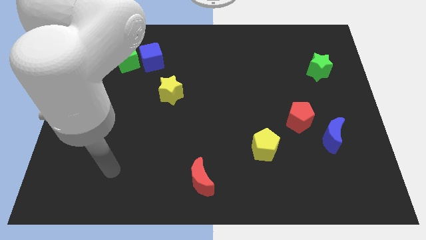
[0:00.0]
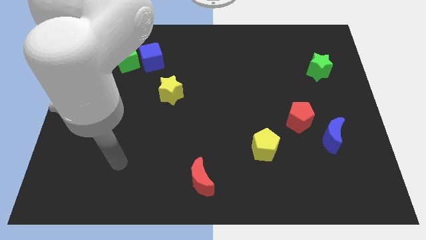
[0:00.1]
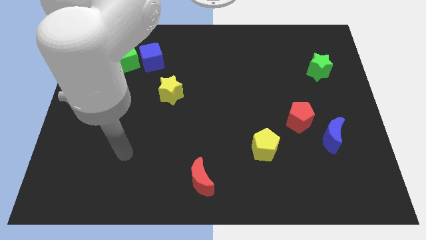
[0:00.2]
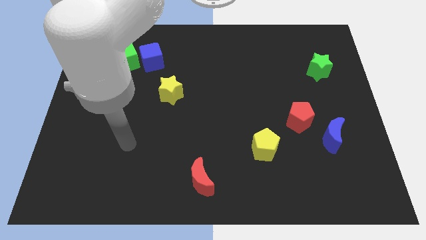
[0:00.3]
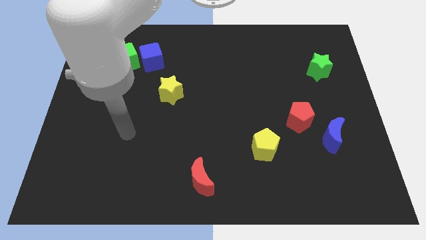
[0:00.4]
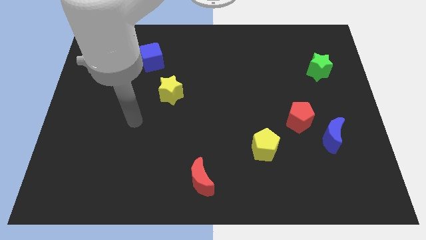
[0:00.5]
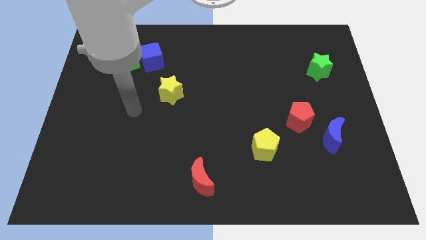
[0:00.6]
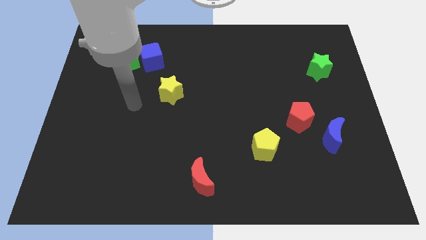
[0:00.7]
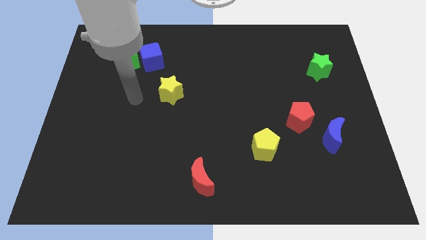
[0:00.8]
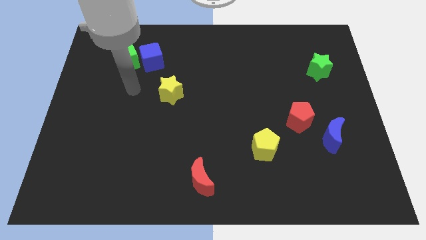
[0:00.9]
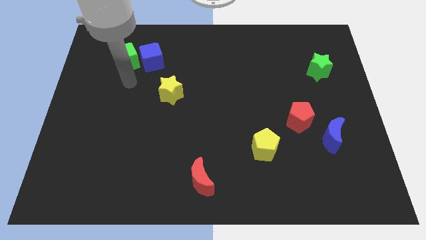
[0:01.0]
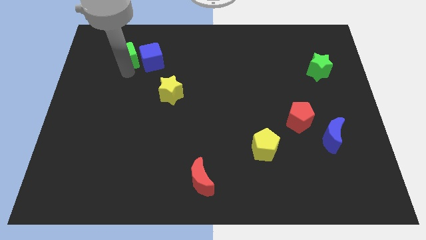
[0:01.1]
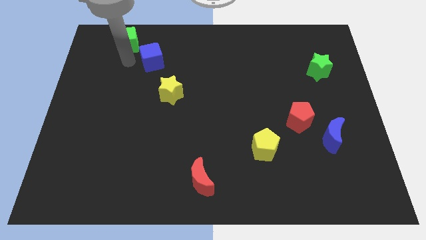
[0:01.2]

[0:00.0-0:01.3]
move the blue cube away from the green cube

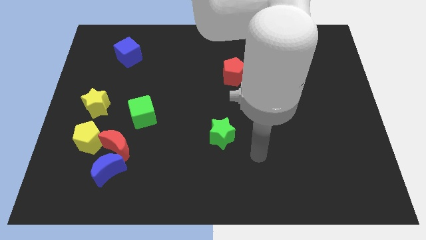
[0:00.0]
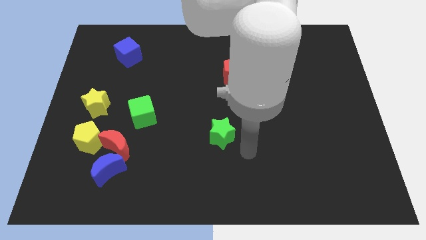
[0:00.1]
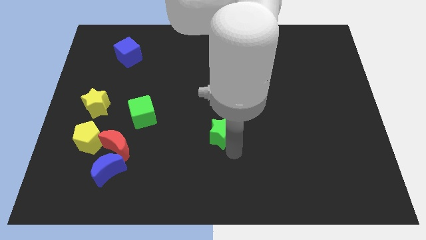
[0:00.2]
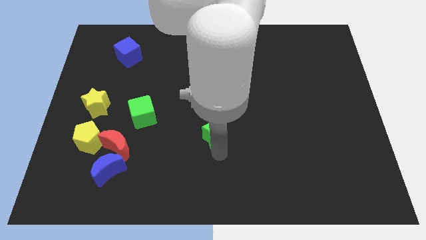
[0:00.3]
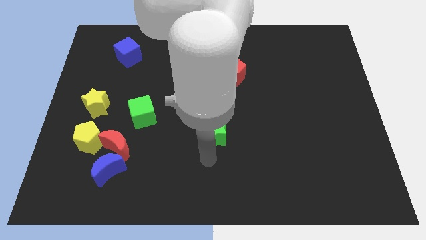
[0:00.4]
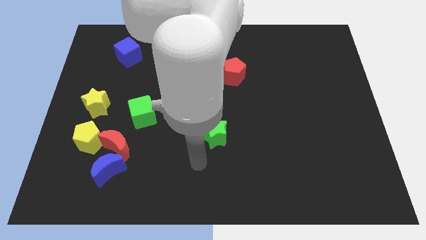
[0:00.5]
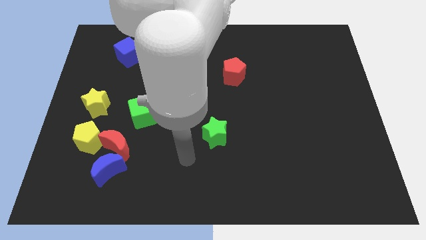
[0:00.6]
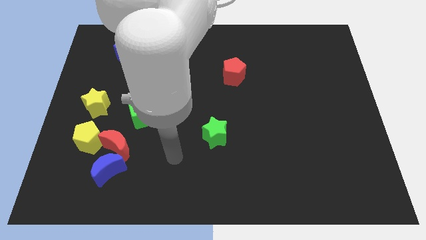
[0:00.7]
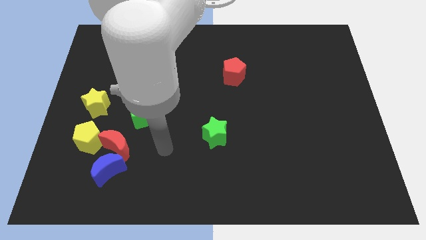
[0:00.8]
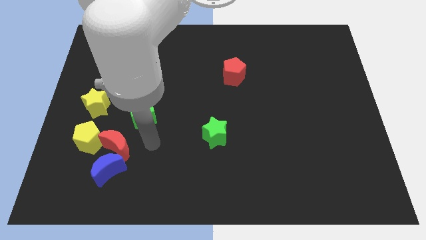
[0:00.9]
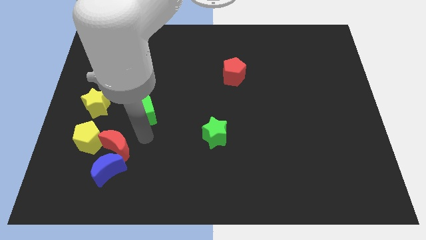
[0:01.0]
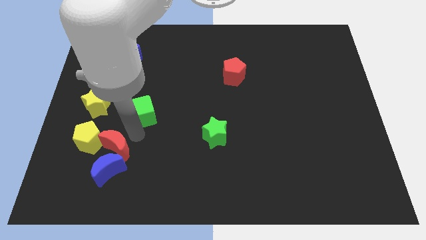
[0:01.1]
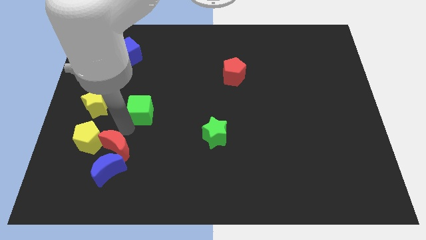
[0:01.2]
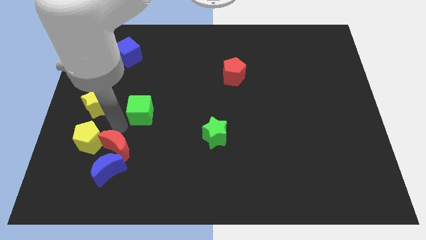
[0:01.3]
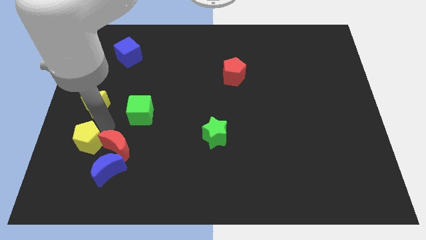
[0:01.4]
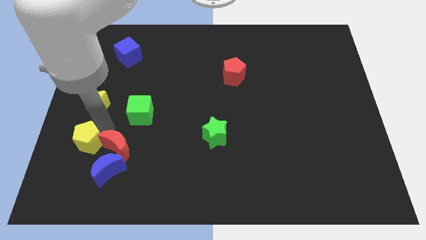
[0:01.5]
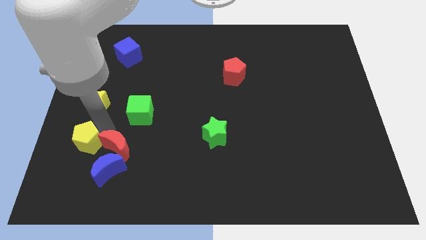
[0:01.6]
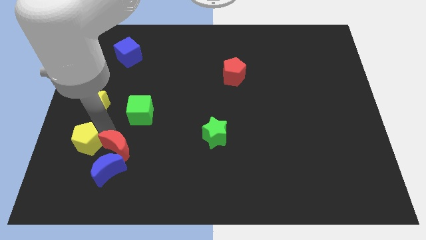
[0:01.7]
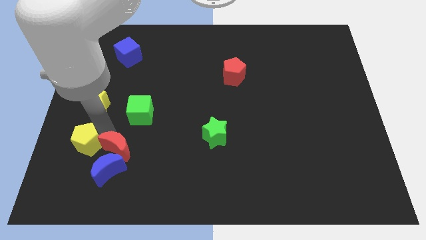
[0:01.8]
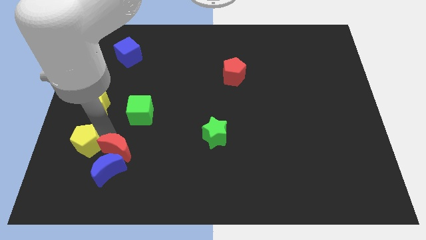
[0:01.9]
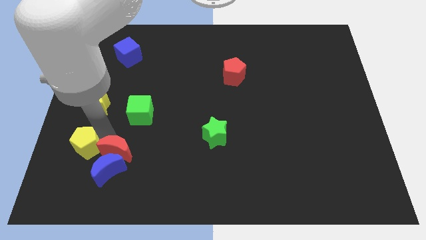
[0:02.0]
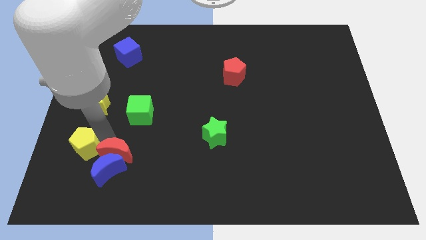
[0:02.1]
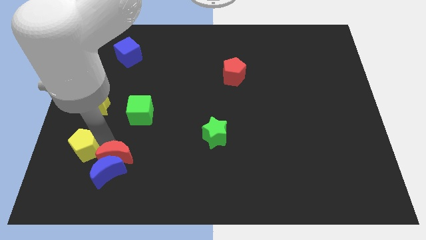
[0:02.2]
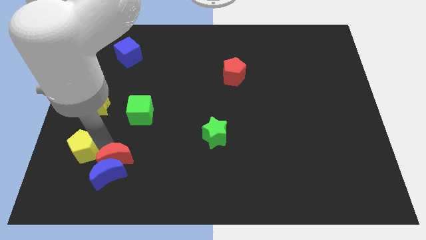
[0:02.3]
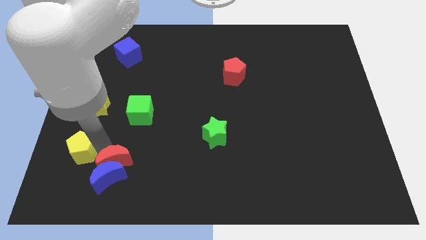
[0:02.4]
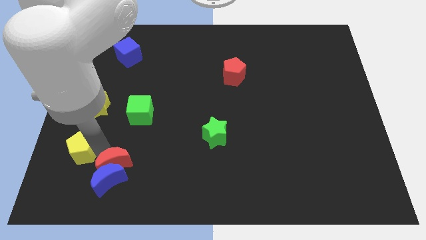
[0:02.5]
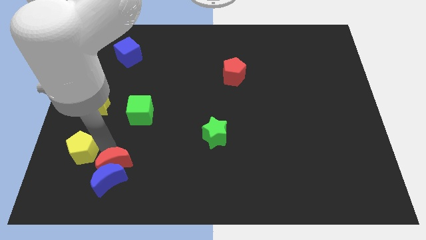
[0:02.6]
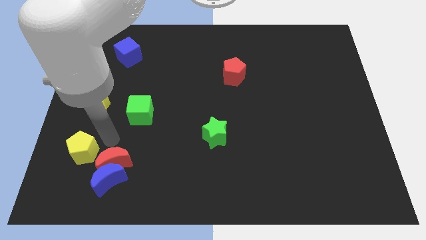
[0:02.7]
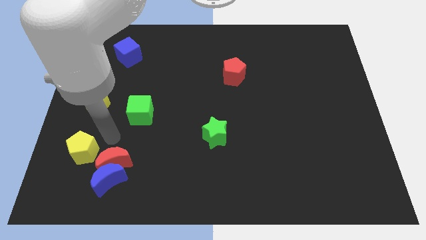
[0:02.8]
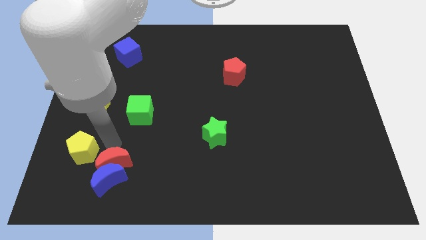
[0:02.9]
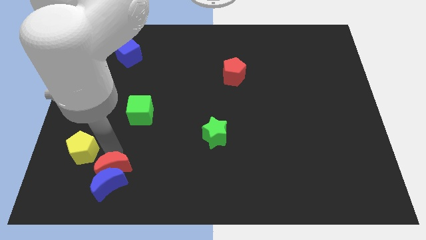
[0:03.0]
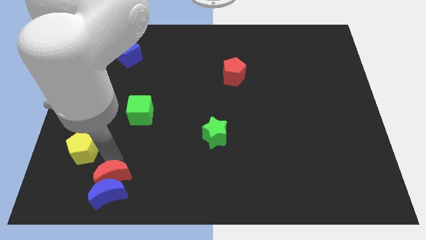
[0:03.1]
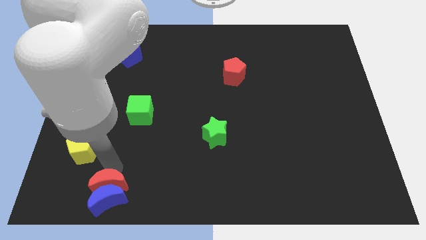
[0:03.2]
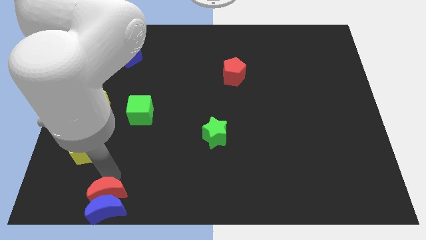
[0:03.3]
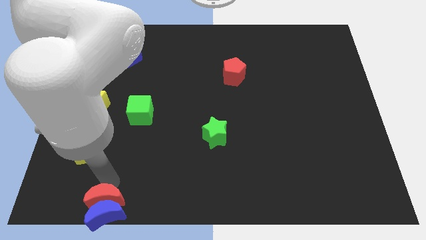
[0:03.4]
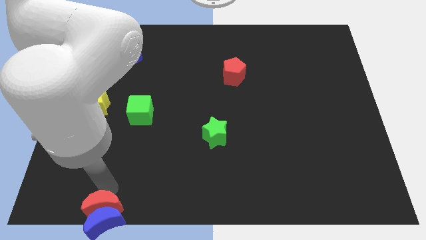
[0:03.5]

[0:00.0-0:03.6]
move the red moon away from the blue moon, yellow pentagon, and green cube

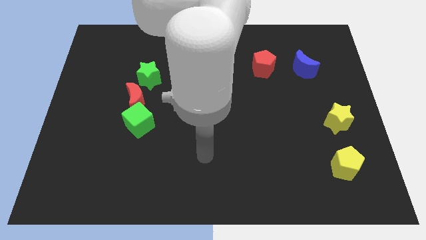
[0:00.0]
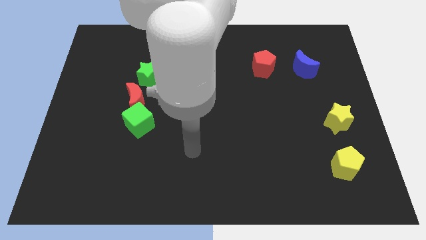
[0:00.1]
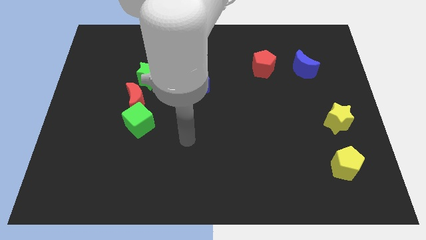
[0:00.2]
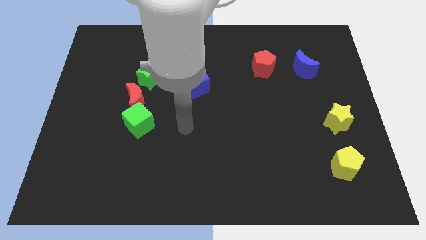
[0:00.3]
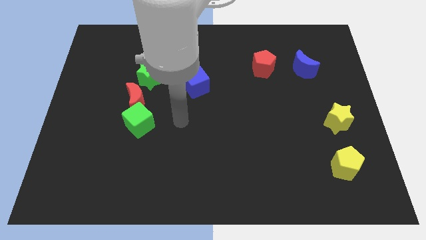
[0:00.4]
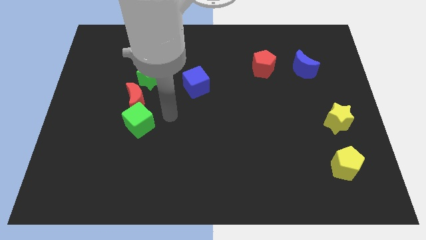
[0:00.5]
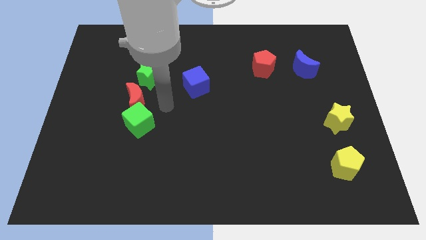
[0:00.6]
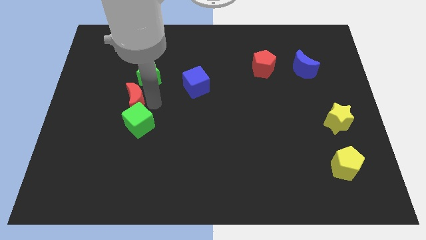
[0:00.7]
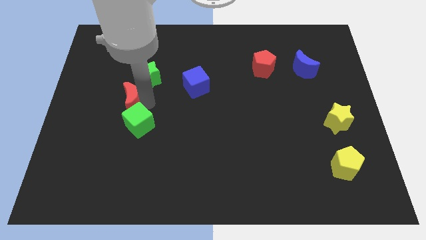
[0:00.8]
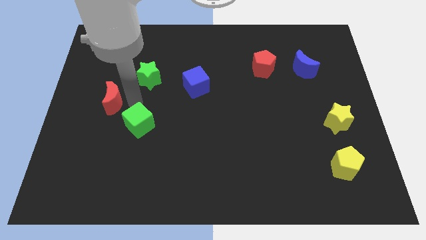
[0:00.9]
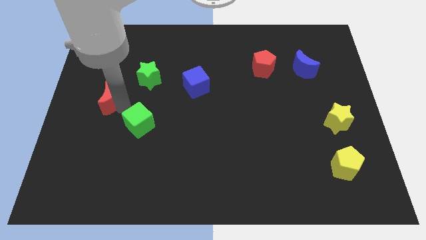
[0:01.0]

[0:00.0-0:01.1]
move the green cube away from the red moon

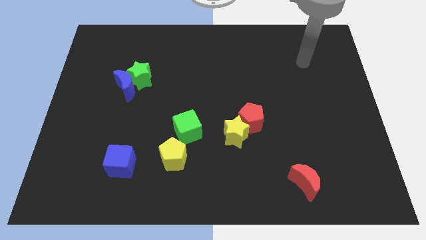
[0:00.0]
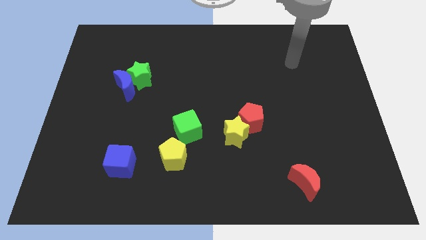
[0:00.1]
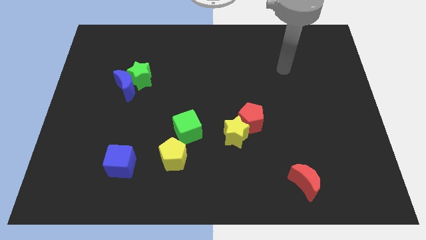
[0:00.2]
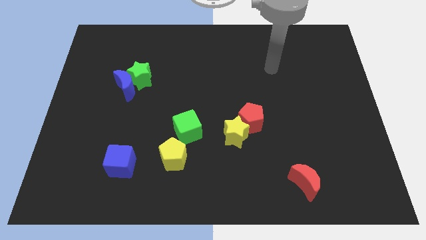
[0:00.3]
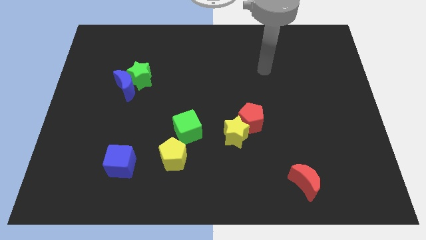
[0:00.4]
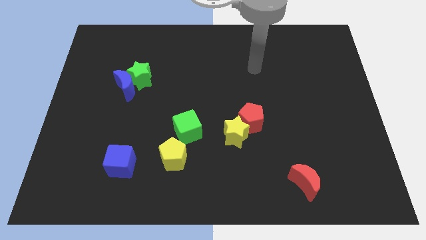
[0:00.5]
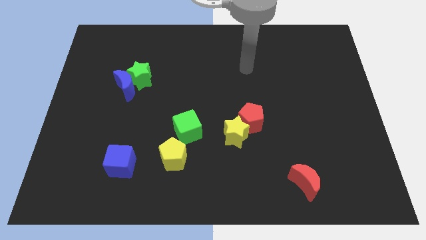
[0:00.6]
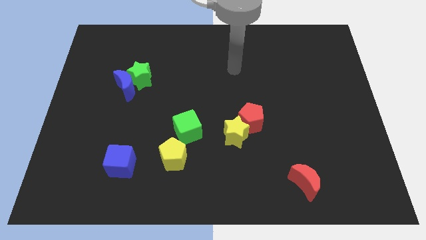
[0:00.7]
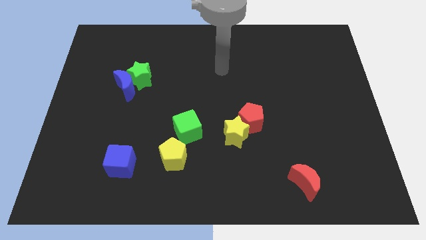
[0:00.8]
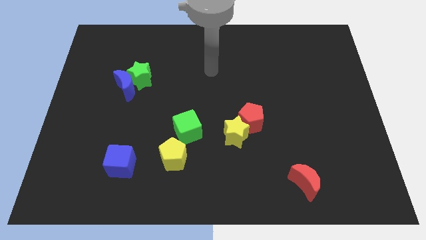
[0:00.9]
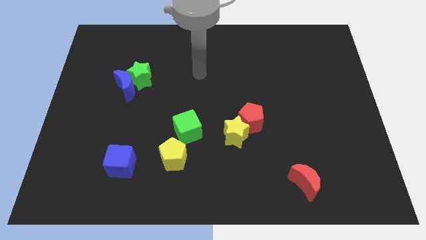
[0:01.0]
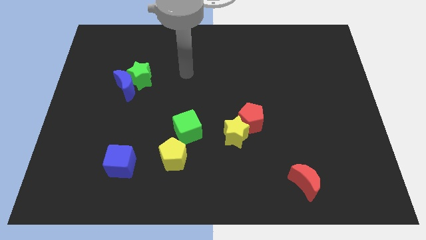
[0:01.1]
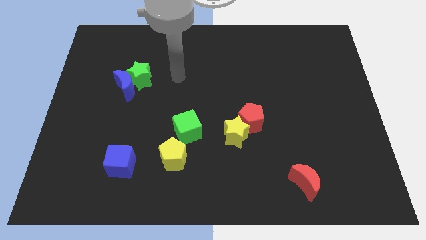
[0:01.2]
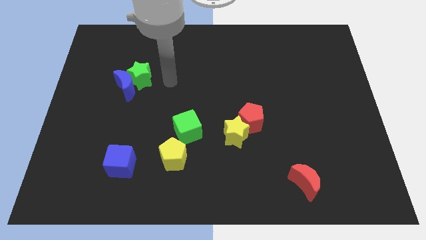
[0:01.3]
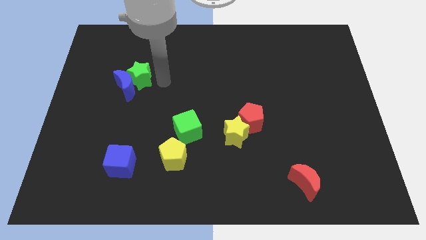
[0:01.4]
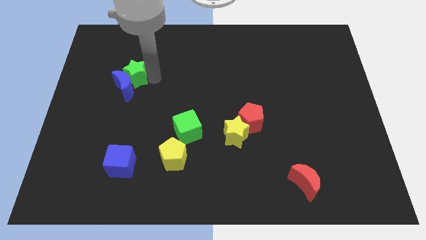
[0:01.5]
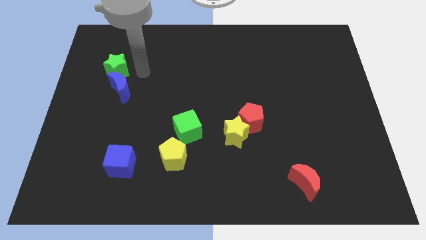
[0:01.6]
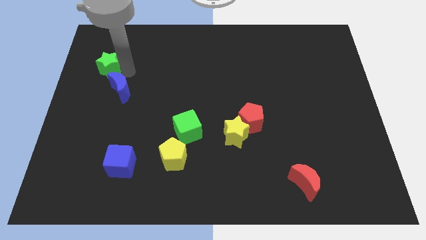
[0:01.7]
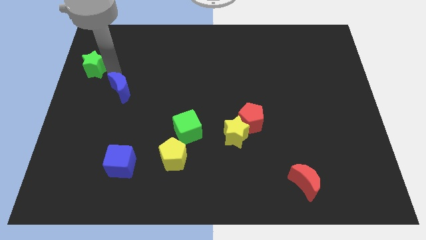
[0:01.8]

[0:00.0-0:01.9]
pull the blue moon apart from the green star

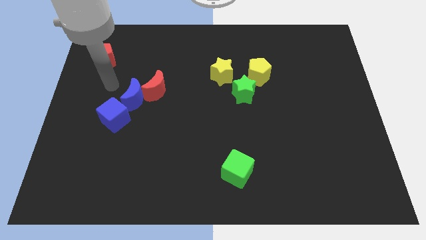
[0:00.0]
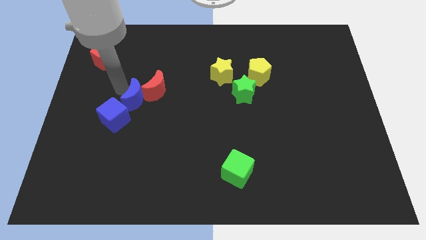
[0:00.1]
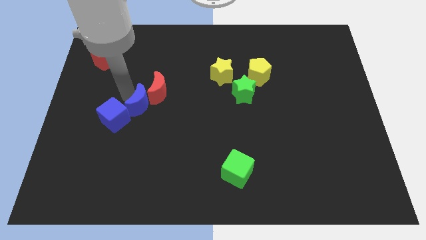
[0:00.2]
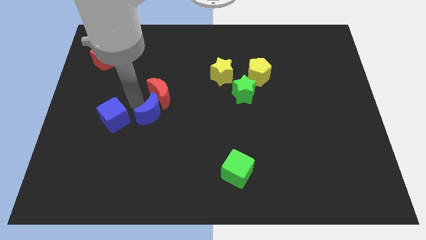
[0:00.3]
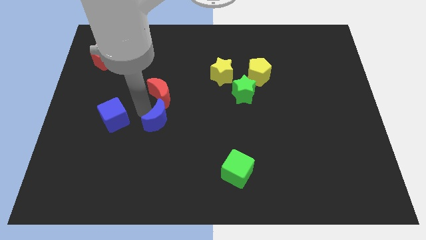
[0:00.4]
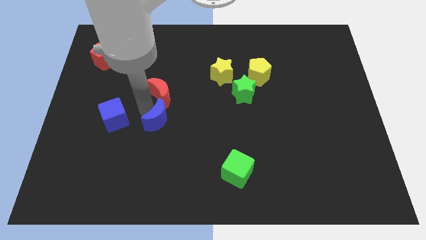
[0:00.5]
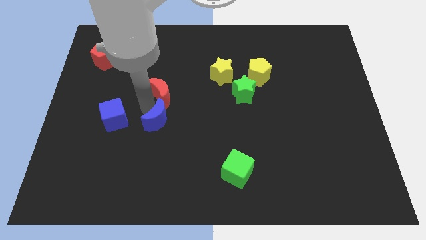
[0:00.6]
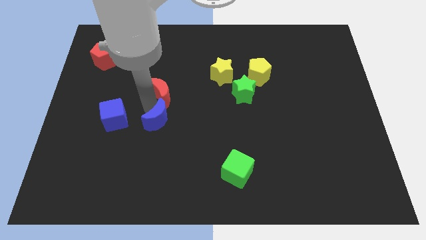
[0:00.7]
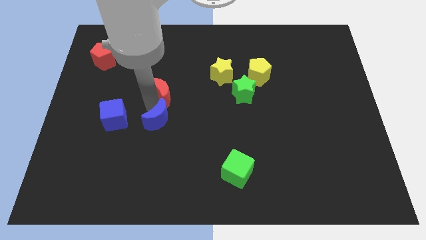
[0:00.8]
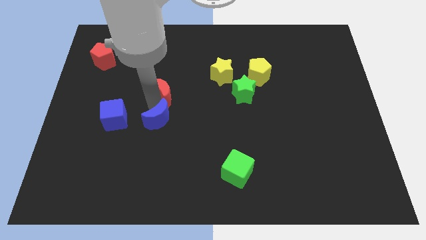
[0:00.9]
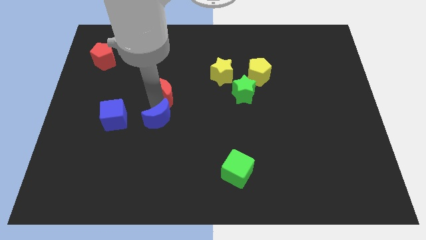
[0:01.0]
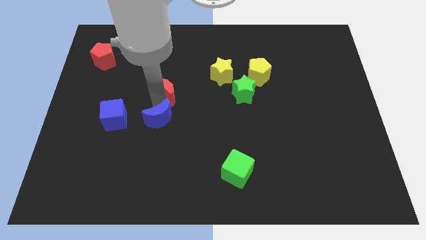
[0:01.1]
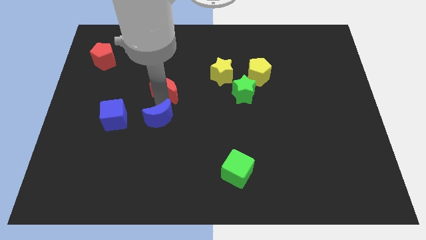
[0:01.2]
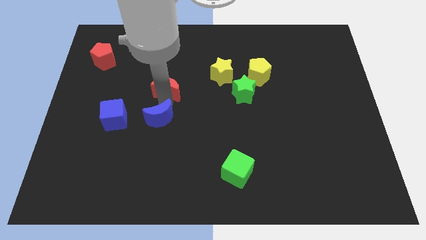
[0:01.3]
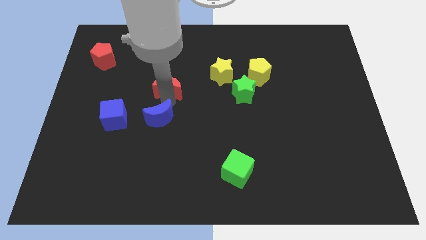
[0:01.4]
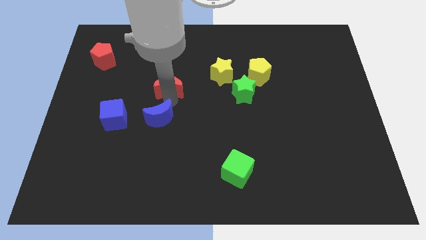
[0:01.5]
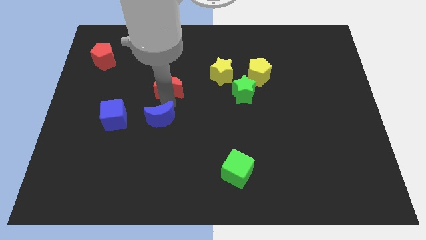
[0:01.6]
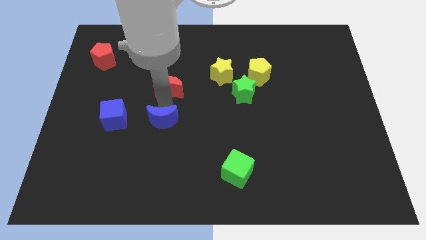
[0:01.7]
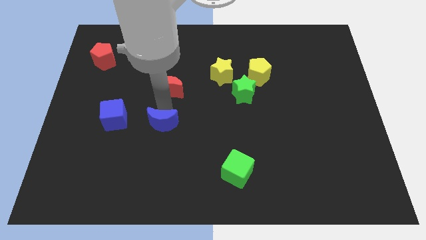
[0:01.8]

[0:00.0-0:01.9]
separate the red moon from the blue moon
